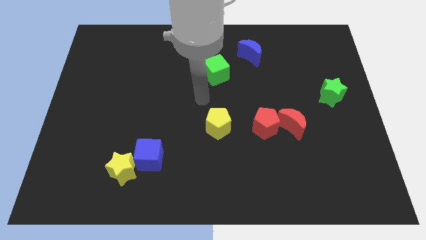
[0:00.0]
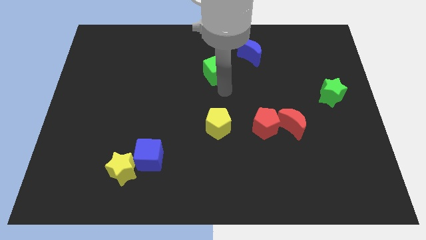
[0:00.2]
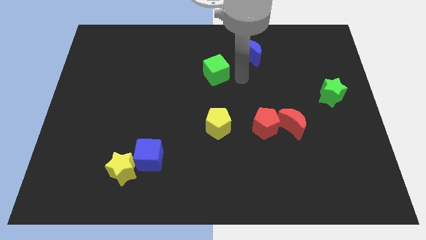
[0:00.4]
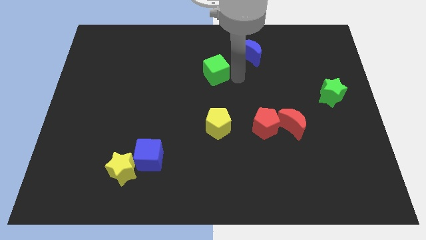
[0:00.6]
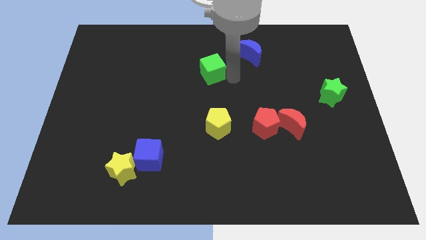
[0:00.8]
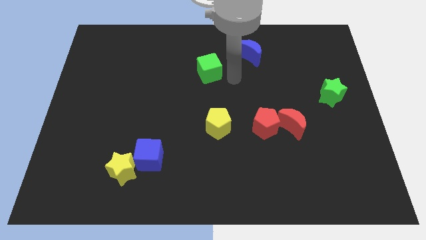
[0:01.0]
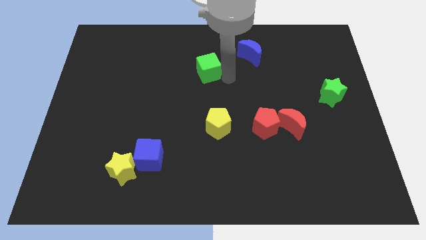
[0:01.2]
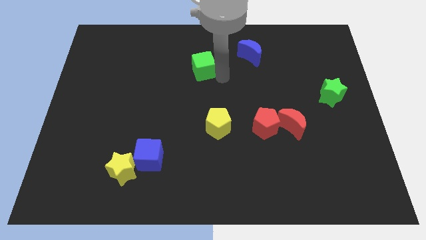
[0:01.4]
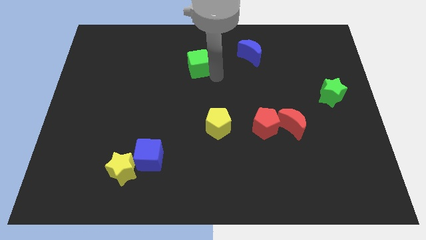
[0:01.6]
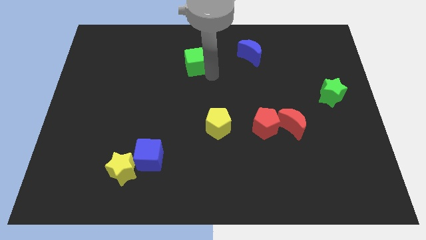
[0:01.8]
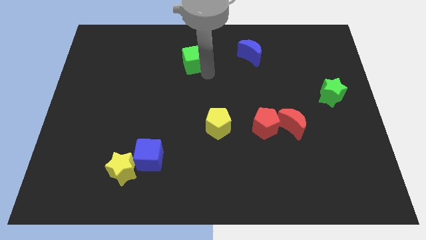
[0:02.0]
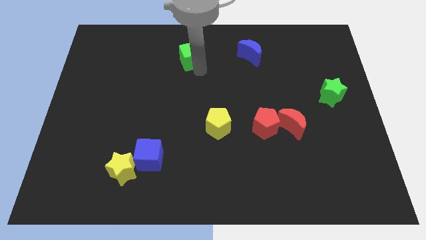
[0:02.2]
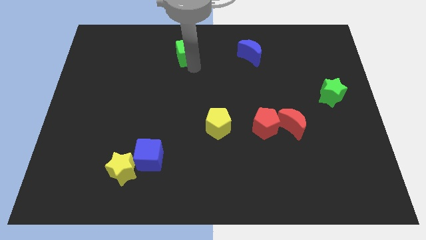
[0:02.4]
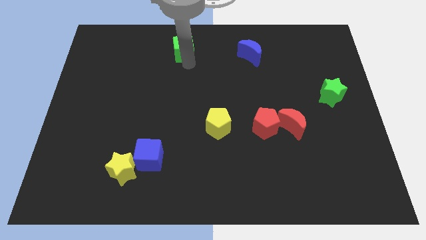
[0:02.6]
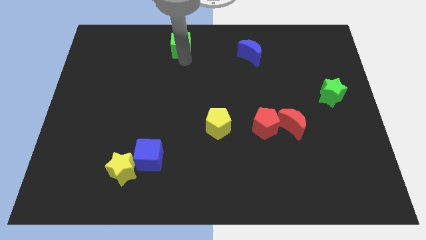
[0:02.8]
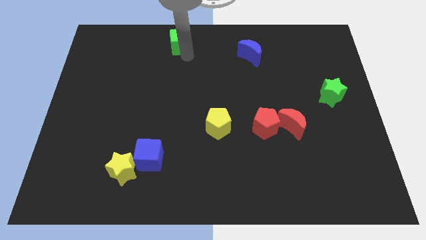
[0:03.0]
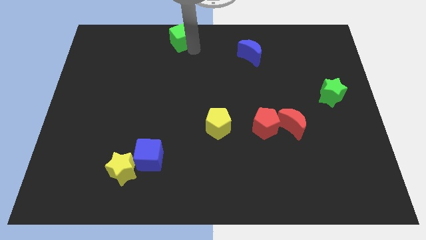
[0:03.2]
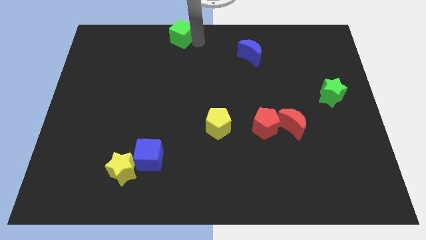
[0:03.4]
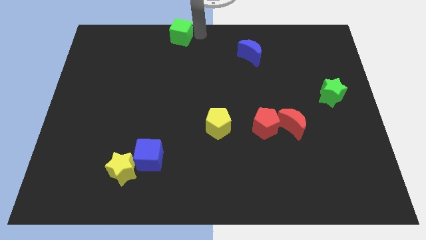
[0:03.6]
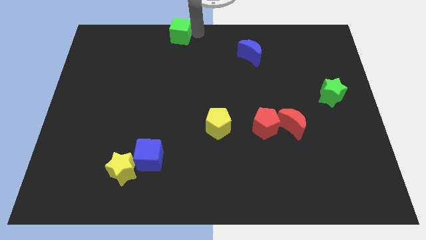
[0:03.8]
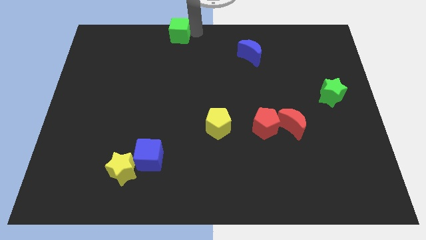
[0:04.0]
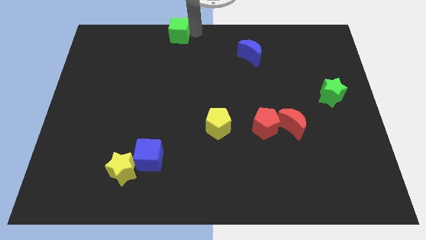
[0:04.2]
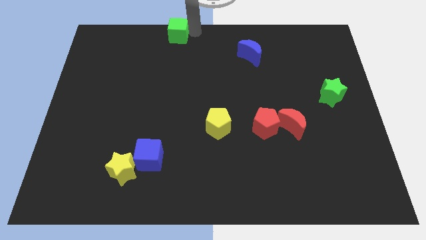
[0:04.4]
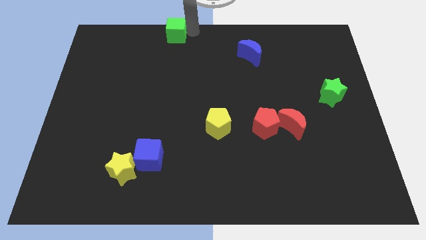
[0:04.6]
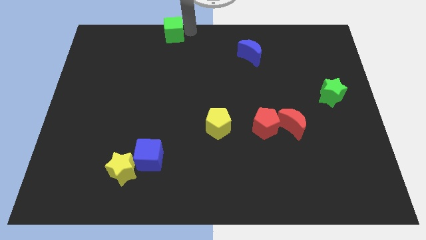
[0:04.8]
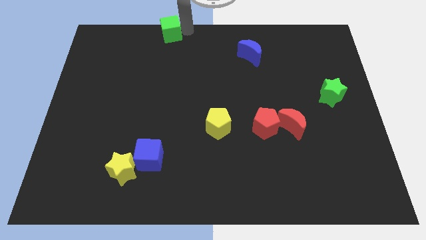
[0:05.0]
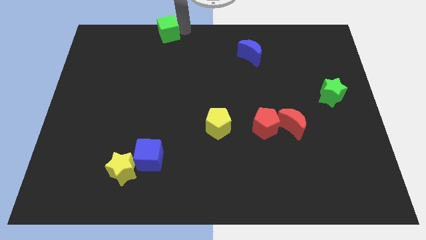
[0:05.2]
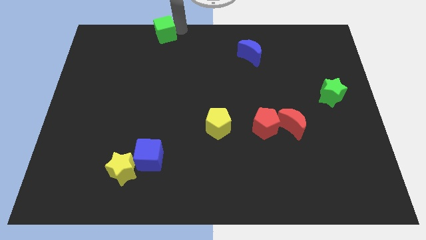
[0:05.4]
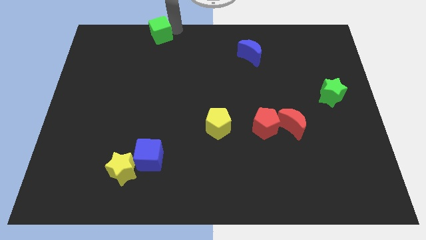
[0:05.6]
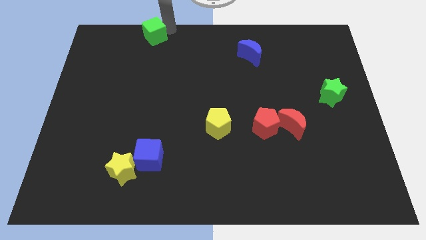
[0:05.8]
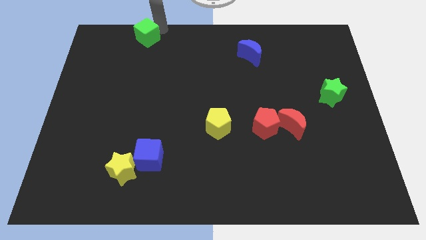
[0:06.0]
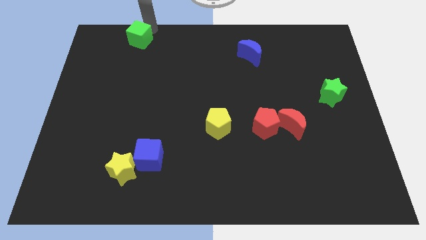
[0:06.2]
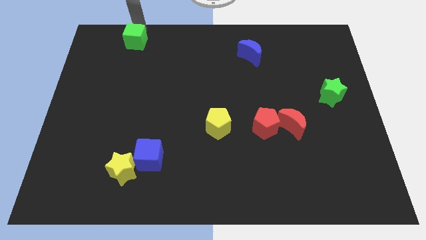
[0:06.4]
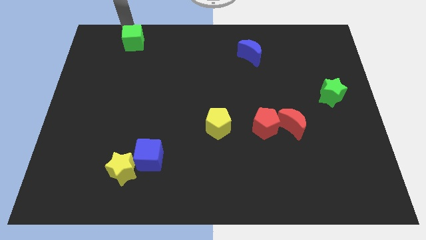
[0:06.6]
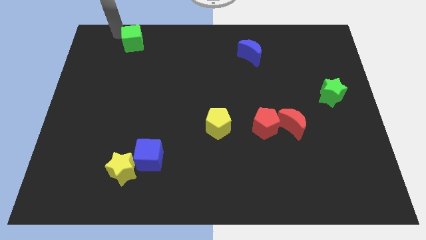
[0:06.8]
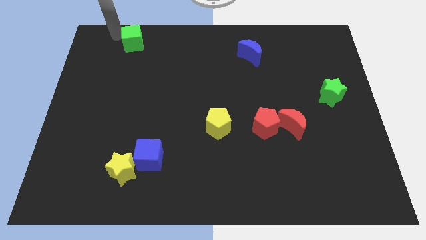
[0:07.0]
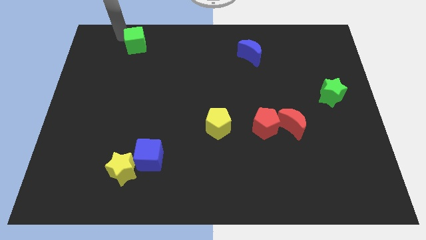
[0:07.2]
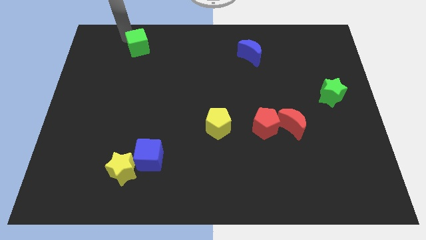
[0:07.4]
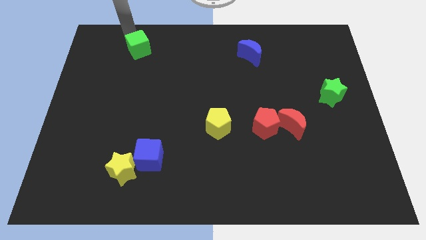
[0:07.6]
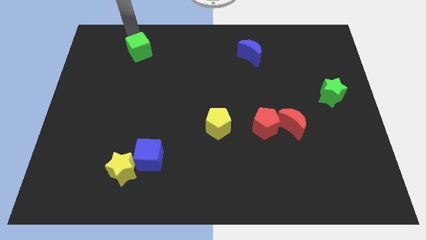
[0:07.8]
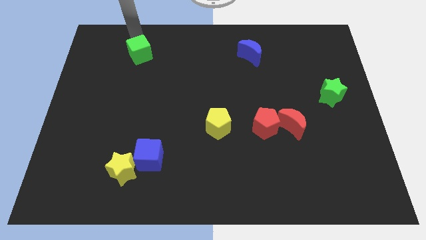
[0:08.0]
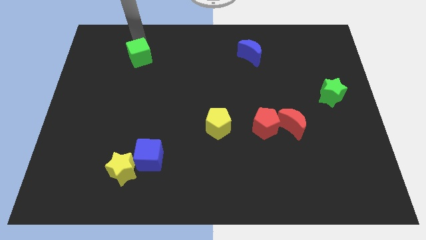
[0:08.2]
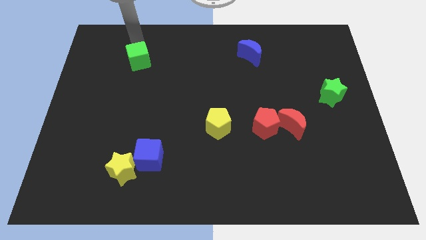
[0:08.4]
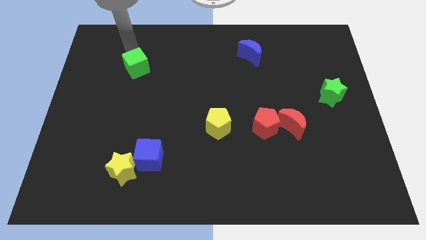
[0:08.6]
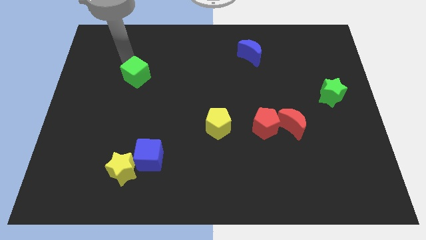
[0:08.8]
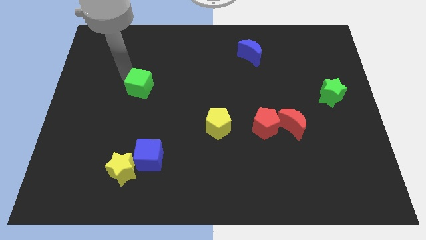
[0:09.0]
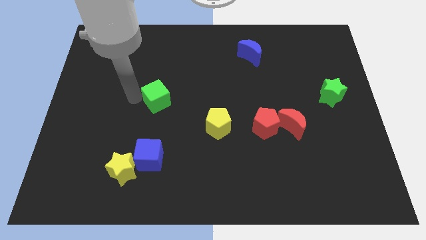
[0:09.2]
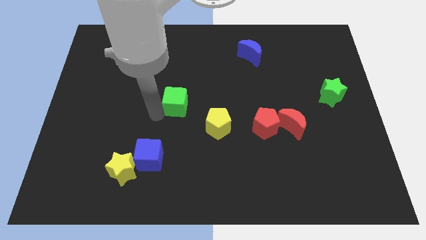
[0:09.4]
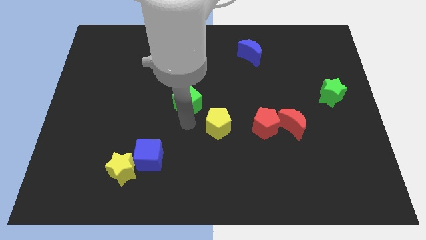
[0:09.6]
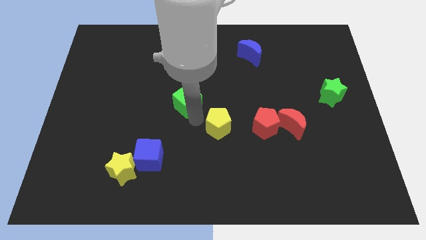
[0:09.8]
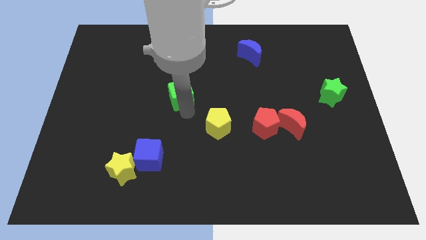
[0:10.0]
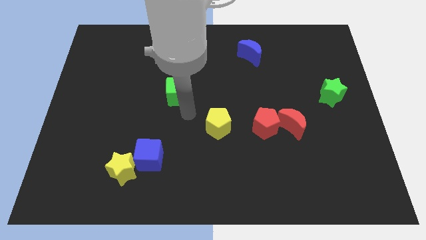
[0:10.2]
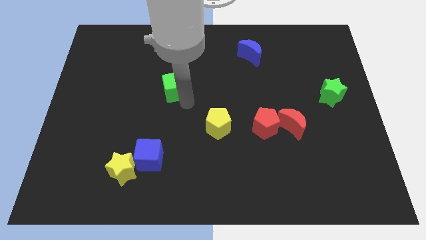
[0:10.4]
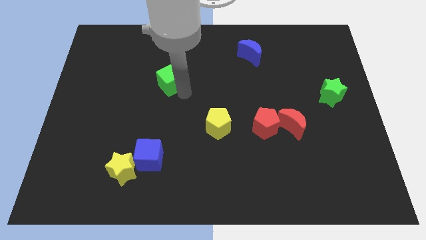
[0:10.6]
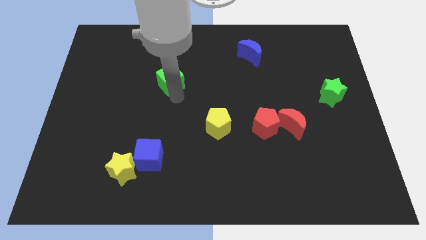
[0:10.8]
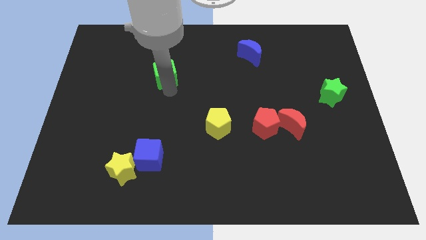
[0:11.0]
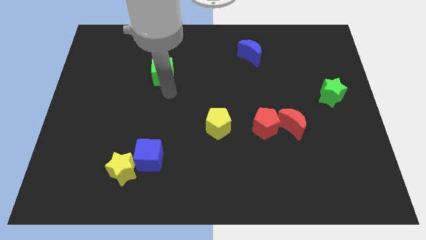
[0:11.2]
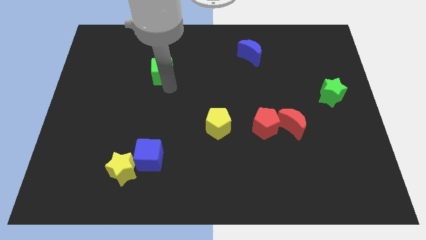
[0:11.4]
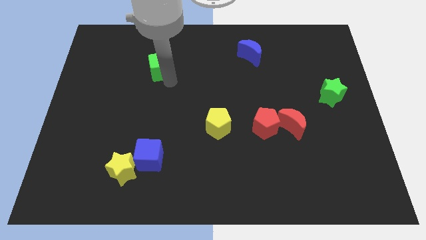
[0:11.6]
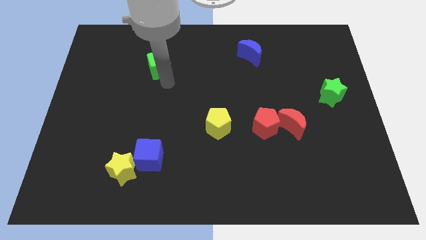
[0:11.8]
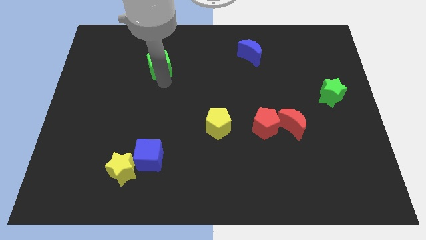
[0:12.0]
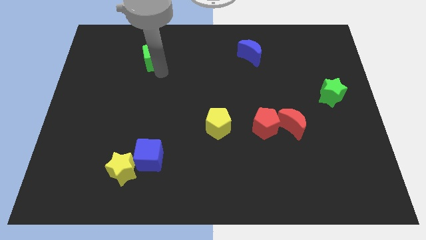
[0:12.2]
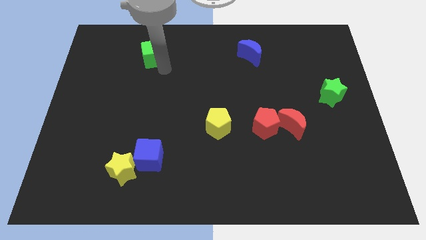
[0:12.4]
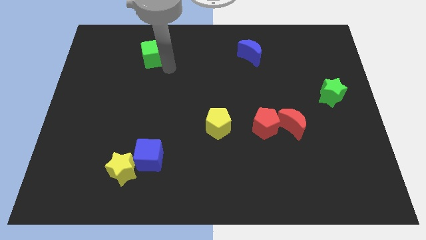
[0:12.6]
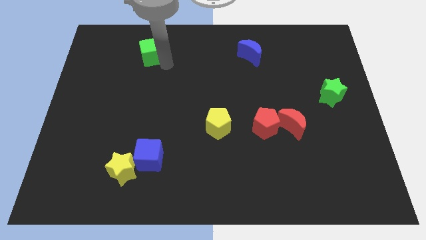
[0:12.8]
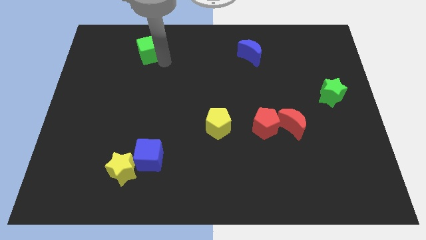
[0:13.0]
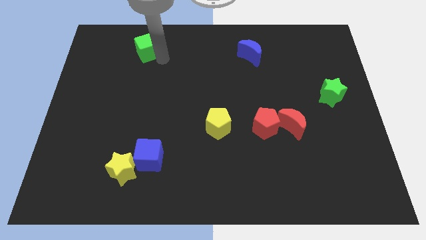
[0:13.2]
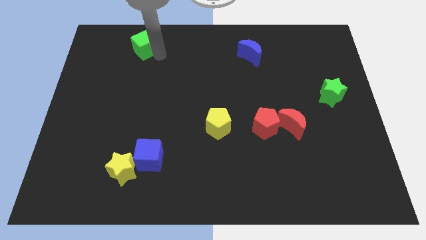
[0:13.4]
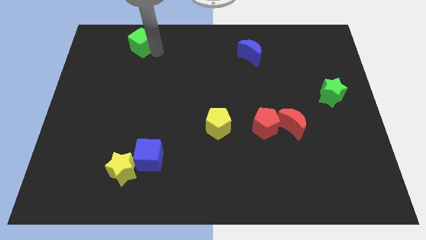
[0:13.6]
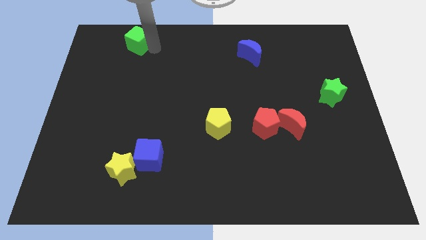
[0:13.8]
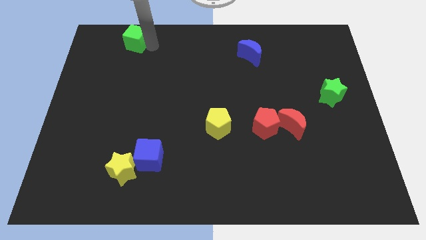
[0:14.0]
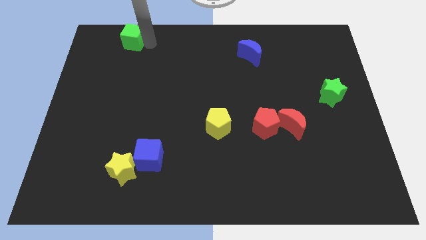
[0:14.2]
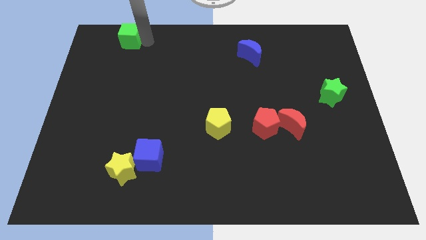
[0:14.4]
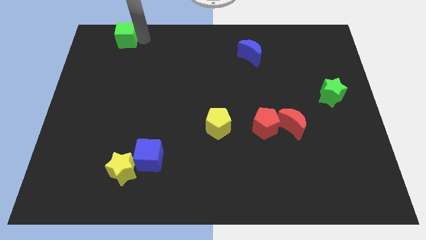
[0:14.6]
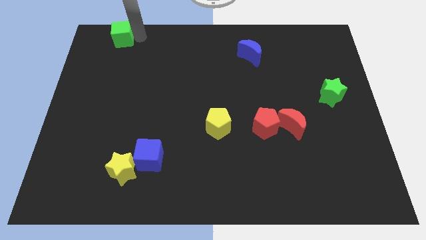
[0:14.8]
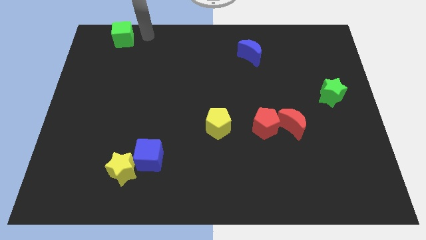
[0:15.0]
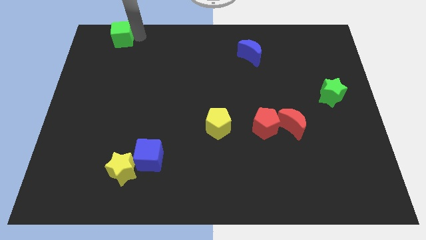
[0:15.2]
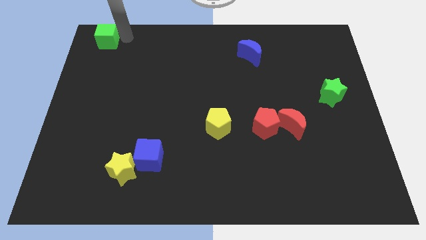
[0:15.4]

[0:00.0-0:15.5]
push the green cube to the top left
